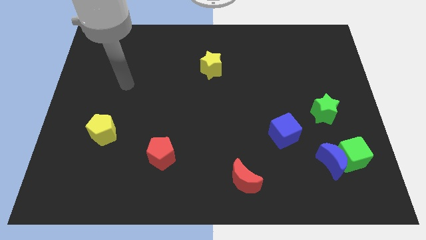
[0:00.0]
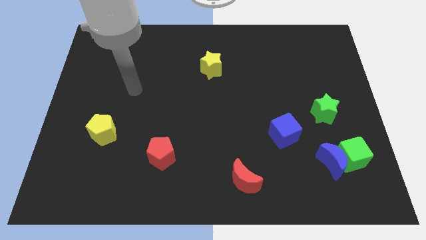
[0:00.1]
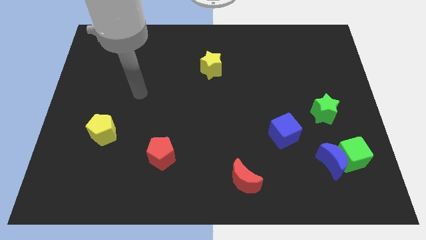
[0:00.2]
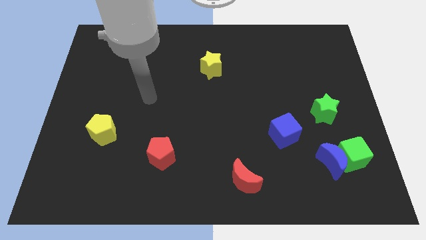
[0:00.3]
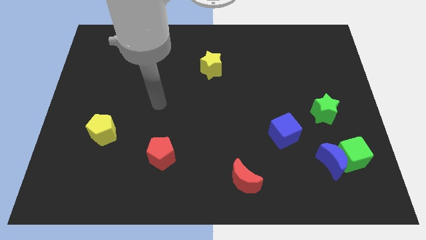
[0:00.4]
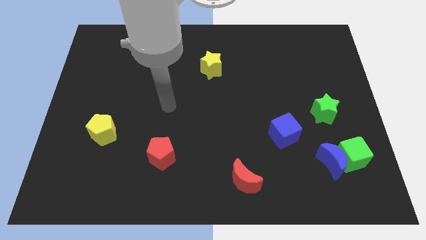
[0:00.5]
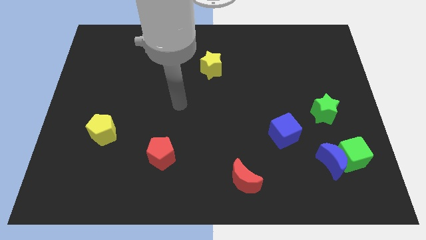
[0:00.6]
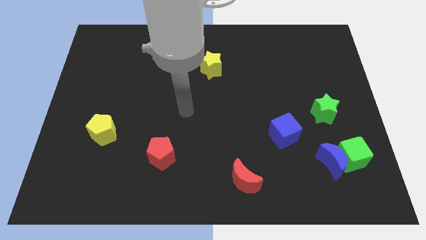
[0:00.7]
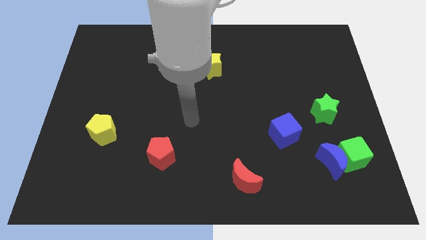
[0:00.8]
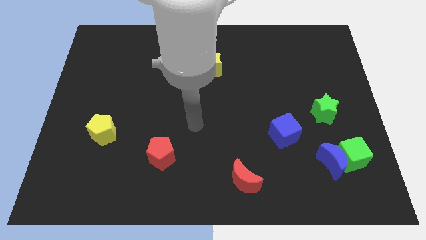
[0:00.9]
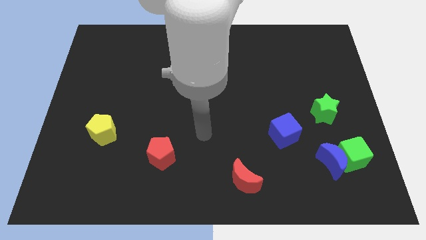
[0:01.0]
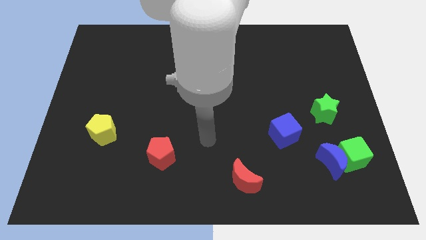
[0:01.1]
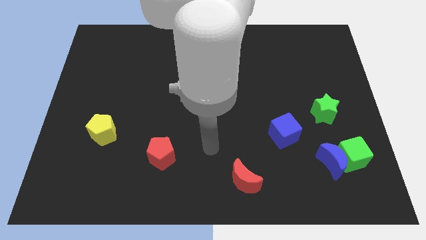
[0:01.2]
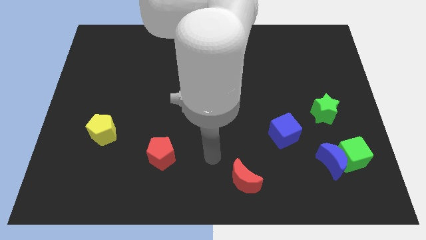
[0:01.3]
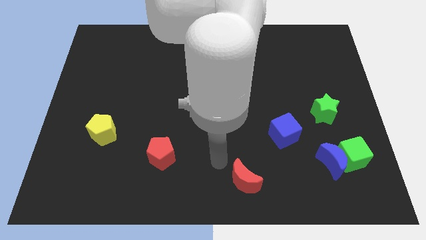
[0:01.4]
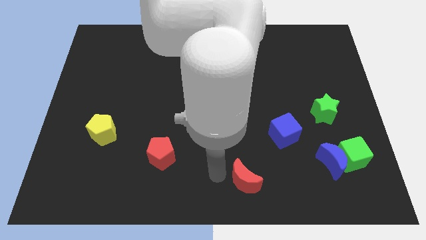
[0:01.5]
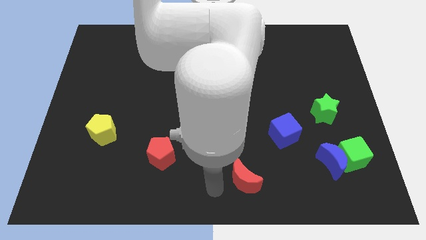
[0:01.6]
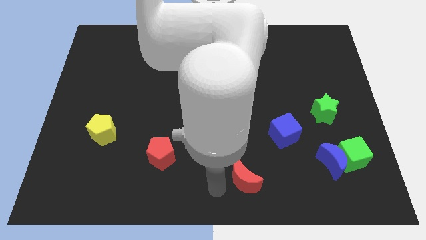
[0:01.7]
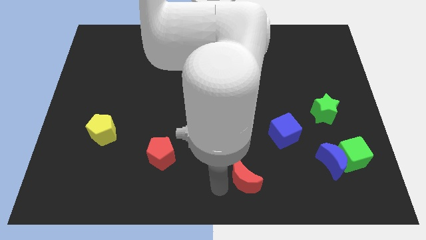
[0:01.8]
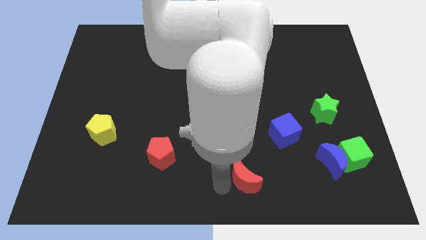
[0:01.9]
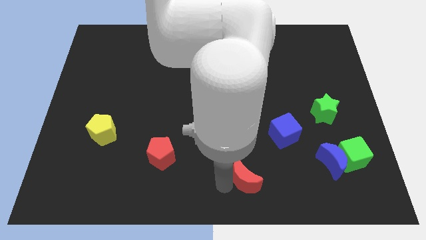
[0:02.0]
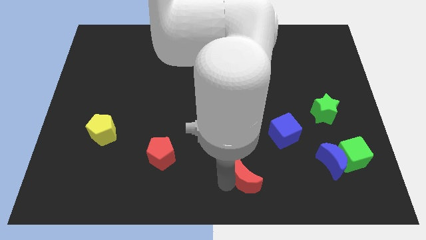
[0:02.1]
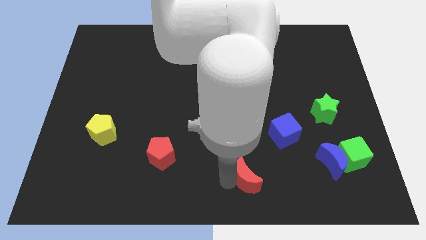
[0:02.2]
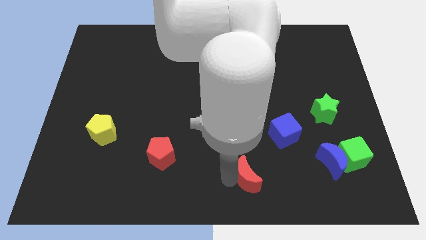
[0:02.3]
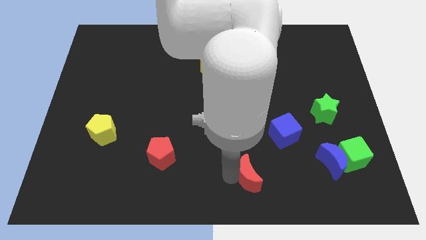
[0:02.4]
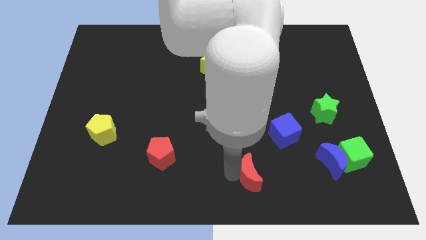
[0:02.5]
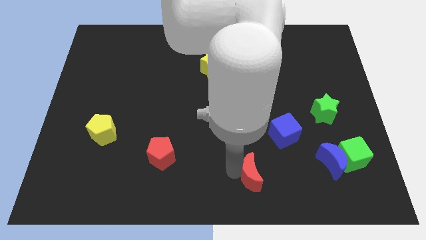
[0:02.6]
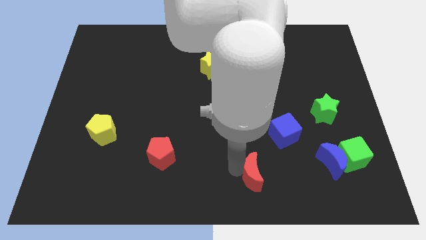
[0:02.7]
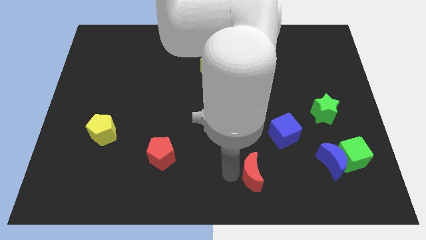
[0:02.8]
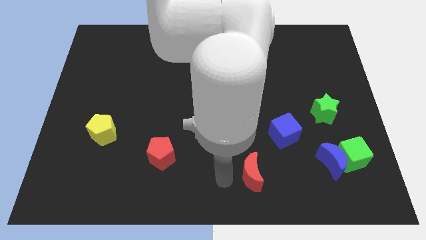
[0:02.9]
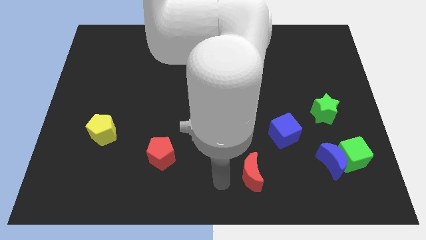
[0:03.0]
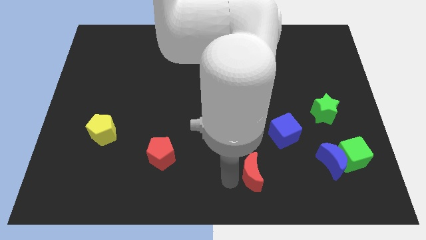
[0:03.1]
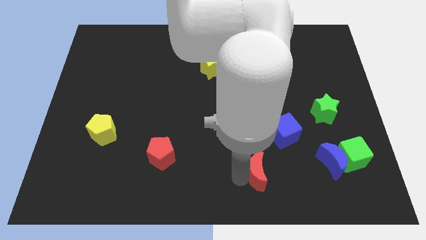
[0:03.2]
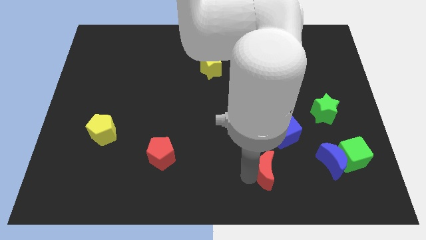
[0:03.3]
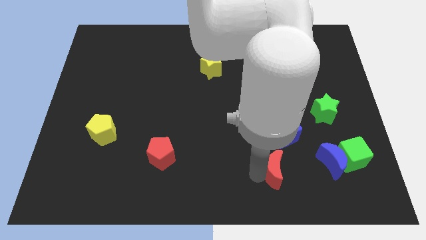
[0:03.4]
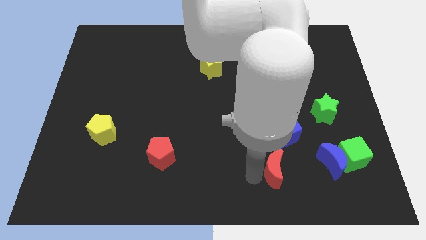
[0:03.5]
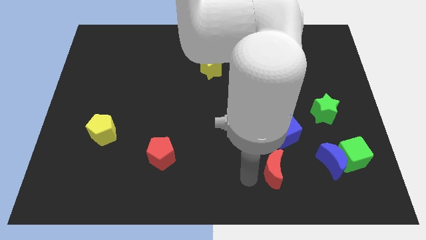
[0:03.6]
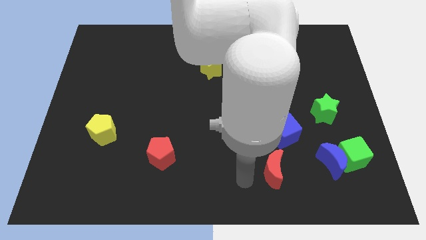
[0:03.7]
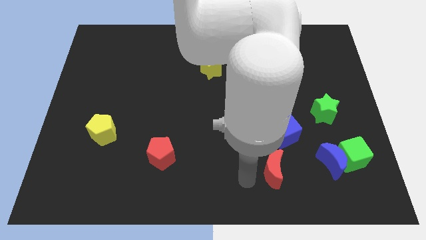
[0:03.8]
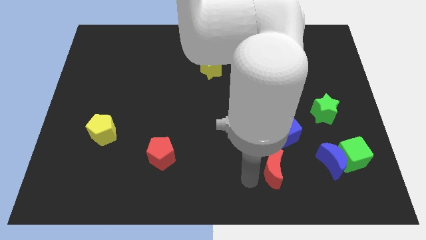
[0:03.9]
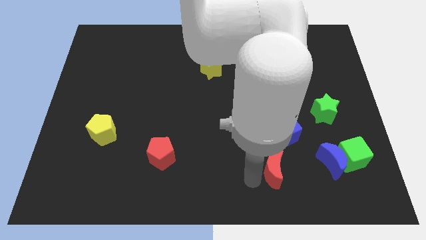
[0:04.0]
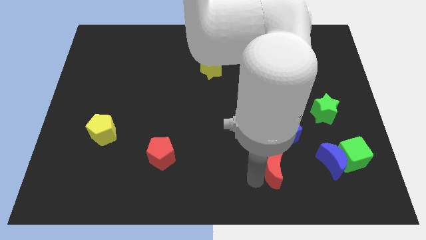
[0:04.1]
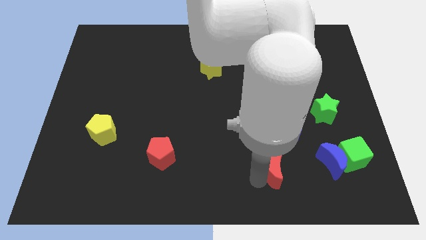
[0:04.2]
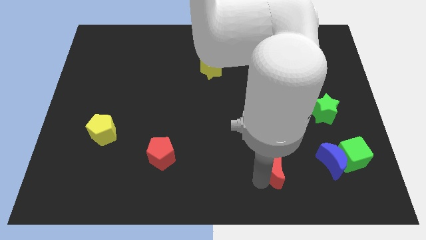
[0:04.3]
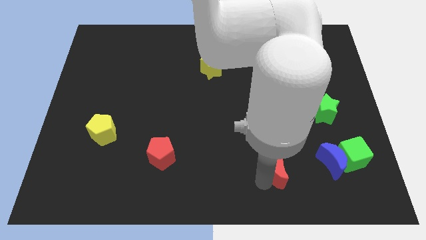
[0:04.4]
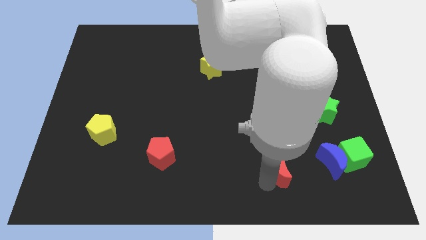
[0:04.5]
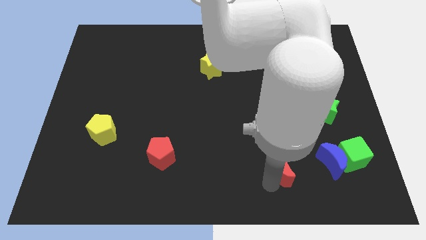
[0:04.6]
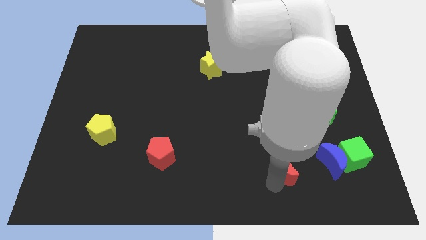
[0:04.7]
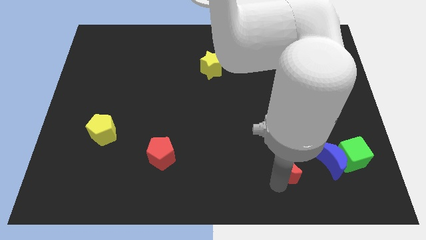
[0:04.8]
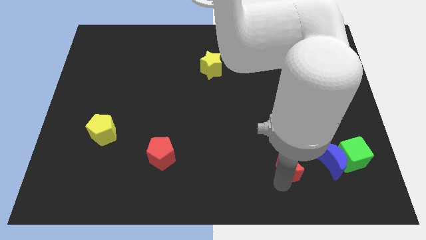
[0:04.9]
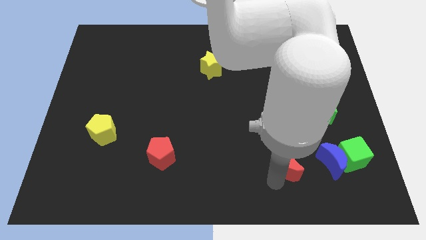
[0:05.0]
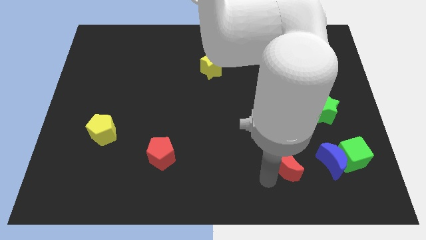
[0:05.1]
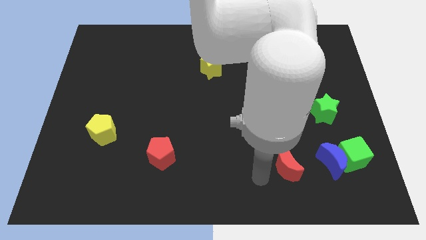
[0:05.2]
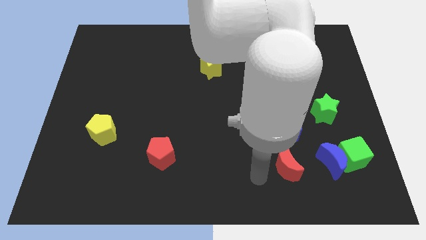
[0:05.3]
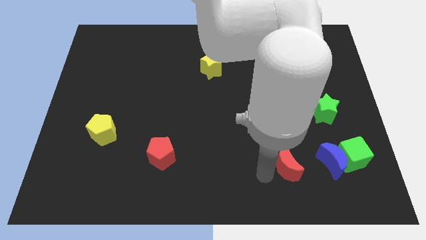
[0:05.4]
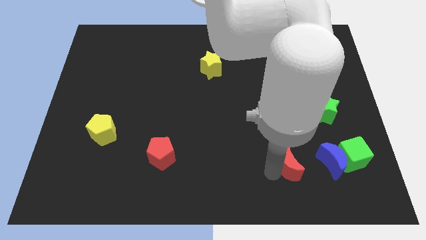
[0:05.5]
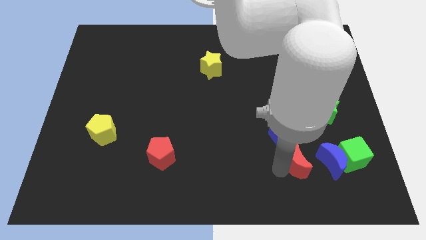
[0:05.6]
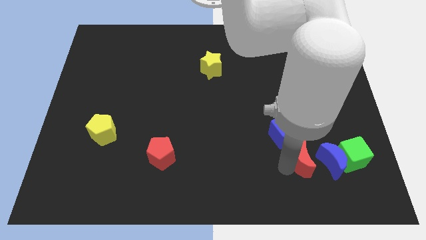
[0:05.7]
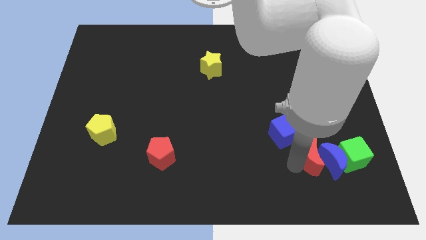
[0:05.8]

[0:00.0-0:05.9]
move the red moon to the blue moon
